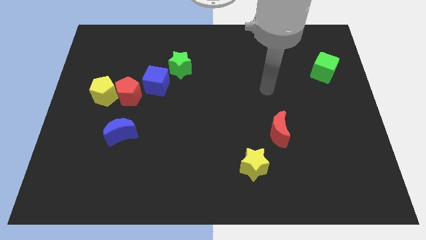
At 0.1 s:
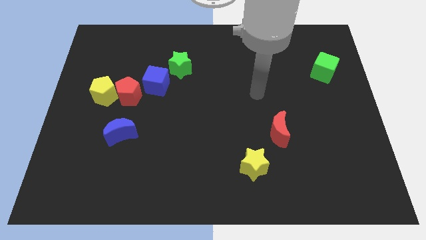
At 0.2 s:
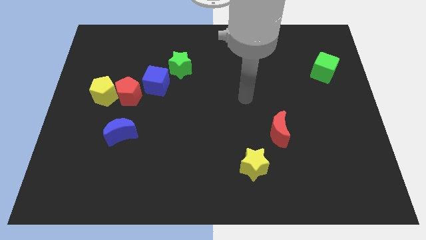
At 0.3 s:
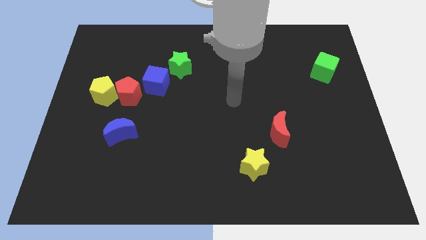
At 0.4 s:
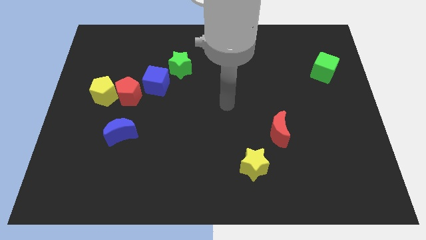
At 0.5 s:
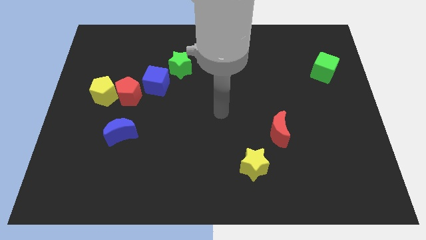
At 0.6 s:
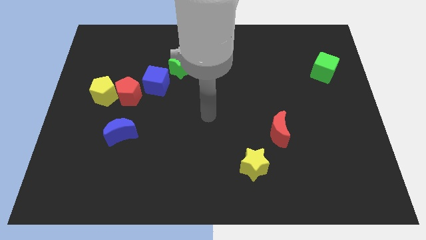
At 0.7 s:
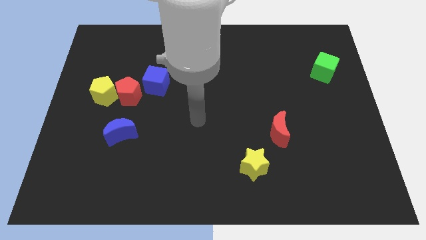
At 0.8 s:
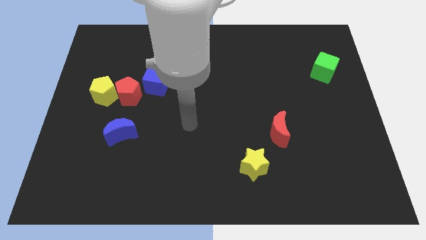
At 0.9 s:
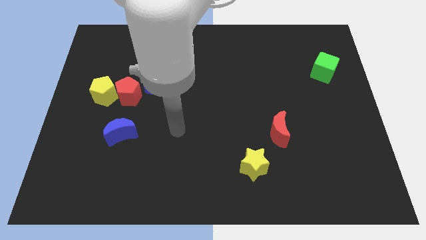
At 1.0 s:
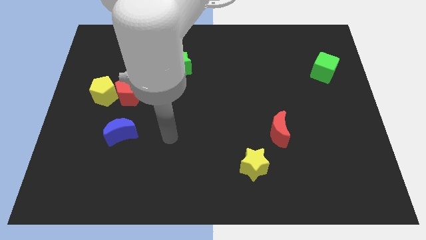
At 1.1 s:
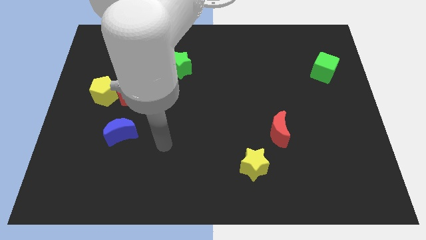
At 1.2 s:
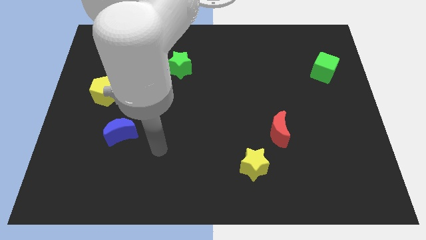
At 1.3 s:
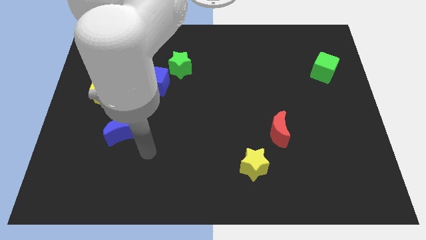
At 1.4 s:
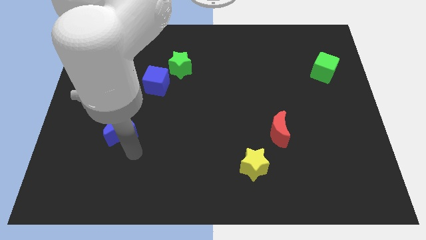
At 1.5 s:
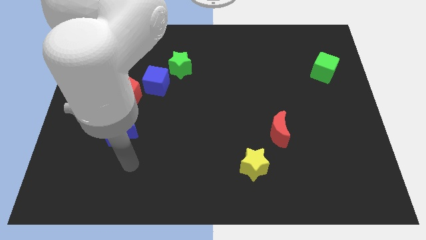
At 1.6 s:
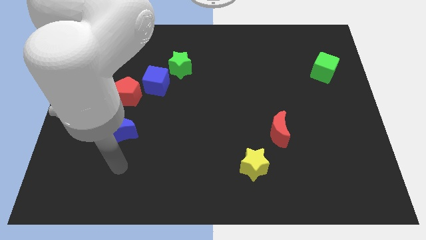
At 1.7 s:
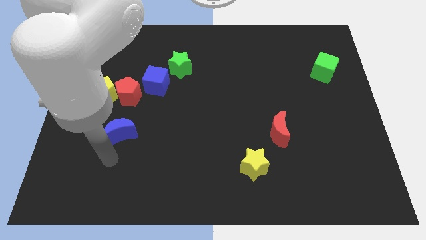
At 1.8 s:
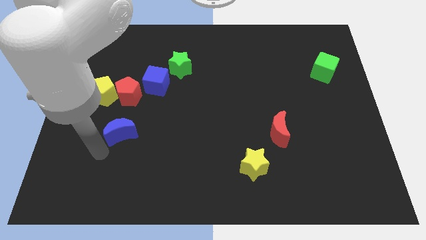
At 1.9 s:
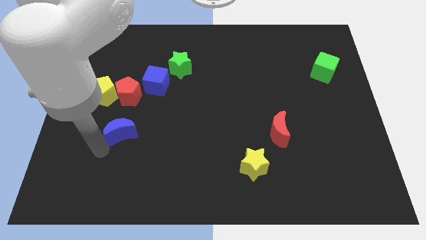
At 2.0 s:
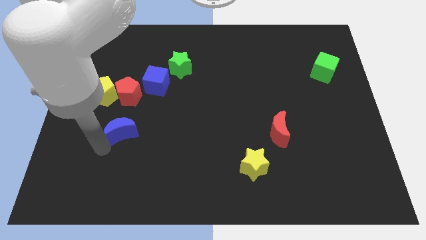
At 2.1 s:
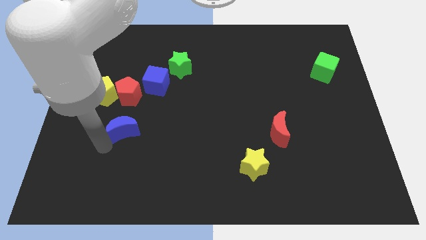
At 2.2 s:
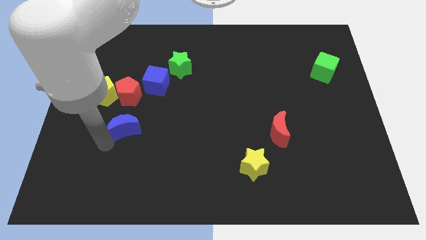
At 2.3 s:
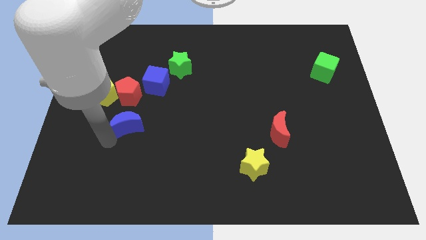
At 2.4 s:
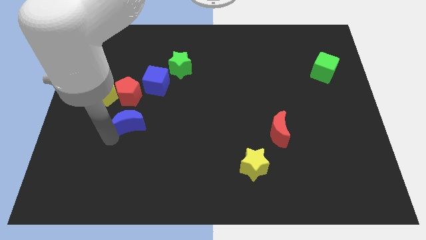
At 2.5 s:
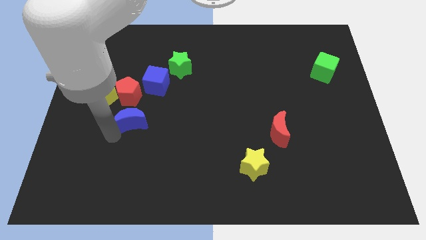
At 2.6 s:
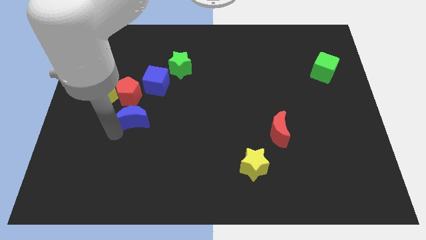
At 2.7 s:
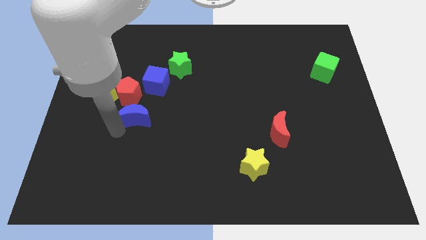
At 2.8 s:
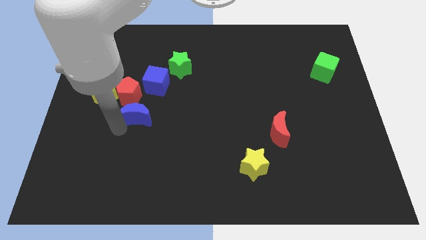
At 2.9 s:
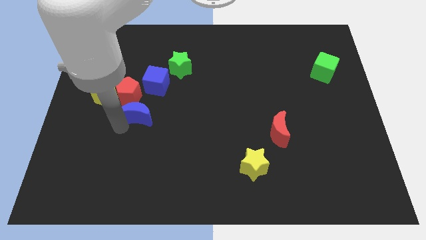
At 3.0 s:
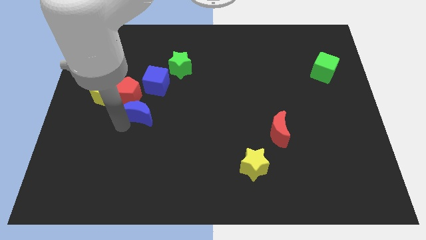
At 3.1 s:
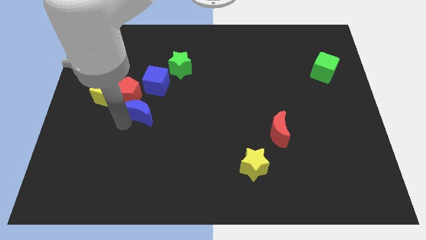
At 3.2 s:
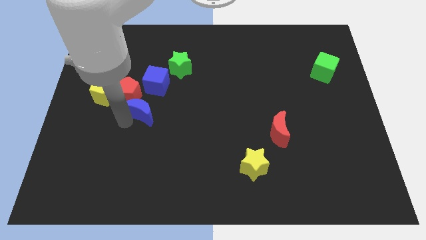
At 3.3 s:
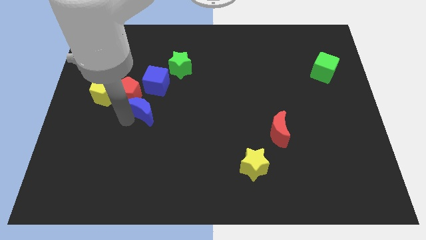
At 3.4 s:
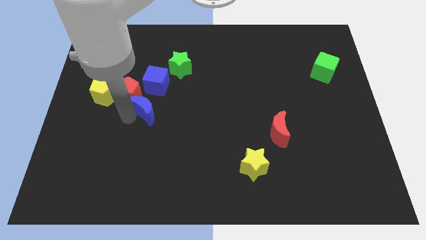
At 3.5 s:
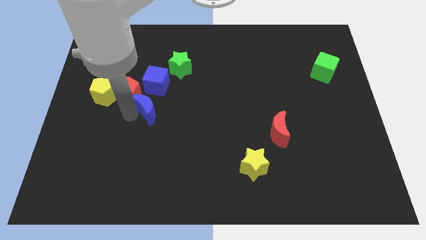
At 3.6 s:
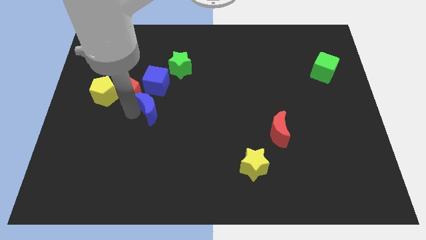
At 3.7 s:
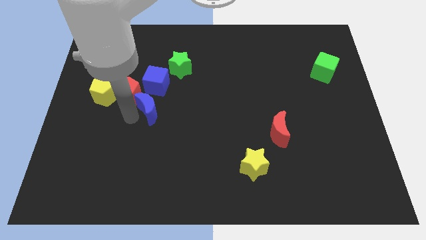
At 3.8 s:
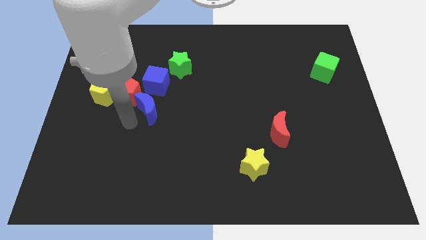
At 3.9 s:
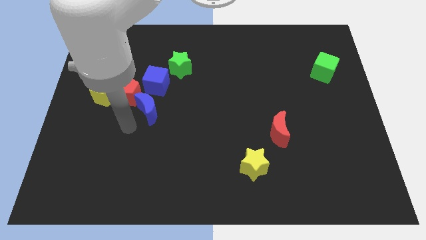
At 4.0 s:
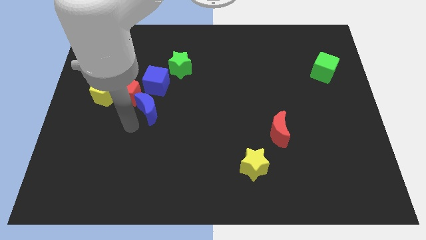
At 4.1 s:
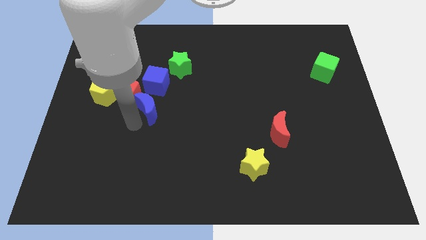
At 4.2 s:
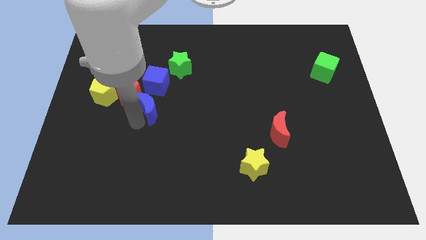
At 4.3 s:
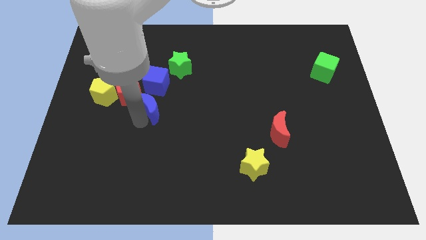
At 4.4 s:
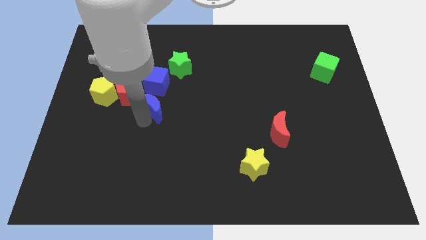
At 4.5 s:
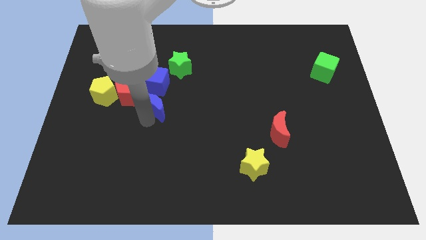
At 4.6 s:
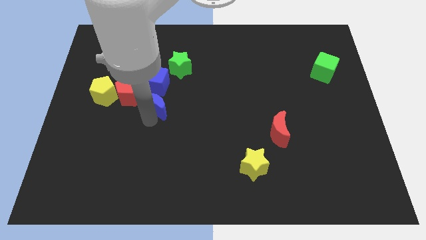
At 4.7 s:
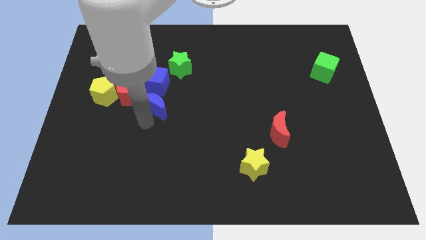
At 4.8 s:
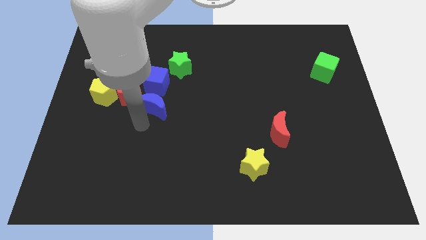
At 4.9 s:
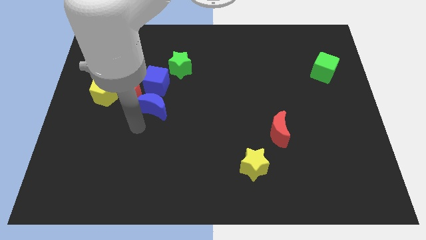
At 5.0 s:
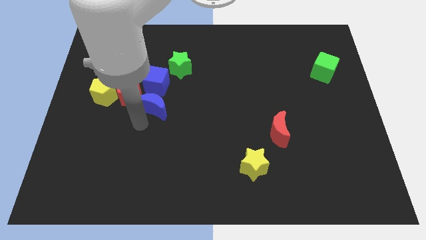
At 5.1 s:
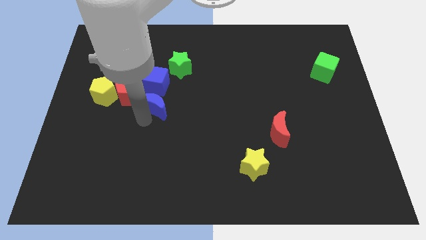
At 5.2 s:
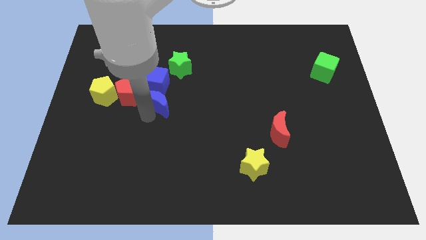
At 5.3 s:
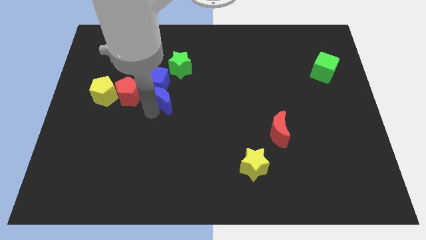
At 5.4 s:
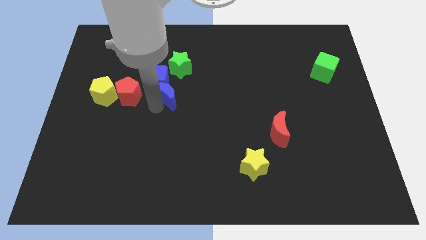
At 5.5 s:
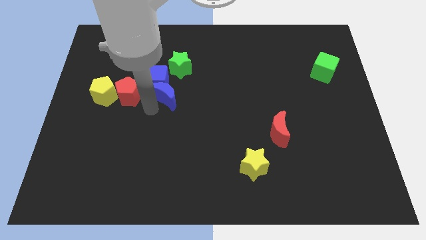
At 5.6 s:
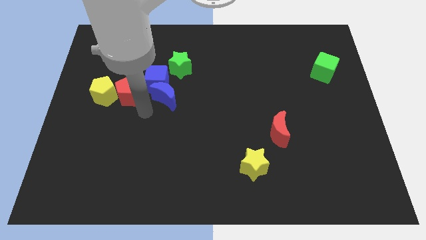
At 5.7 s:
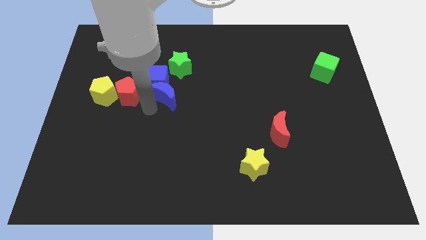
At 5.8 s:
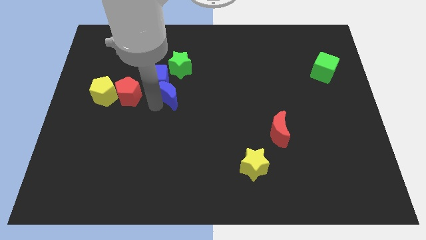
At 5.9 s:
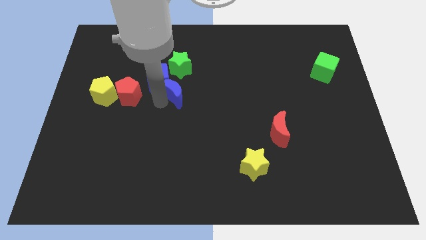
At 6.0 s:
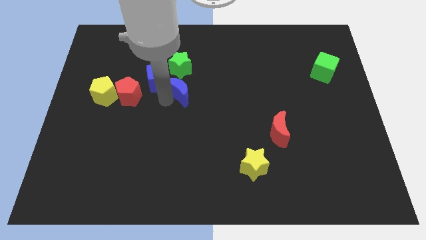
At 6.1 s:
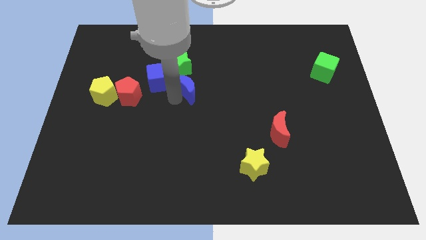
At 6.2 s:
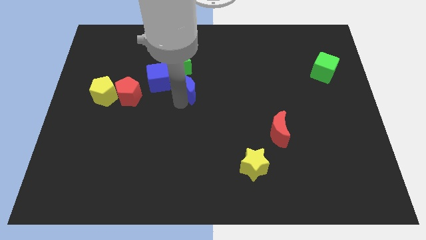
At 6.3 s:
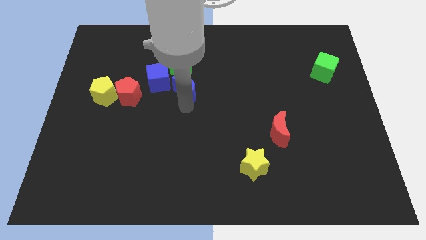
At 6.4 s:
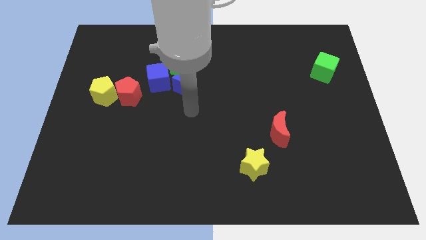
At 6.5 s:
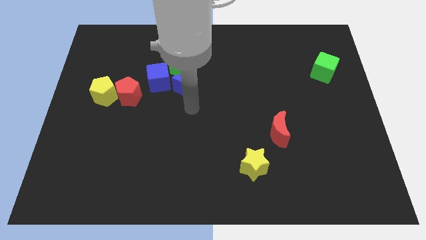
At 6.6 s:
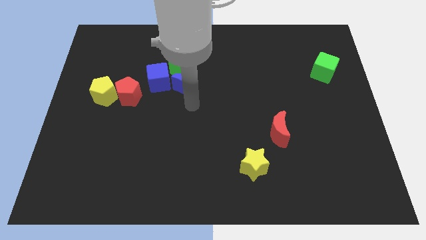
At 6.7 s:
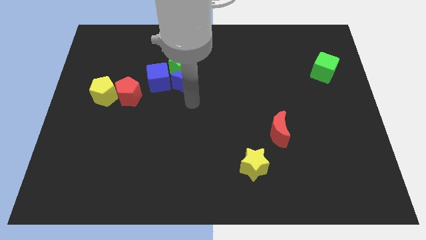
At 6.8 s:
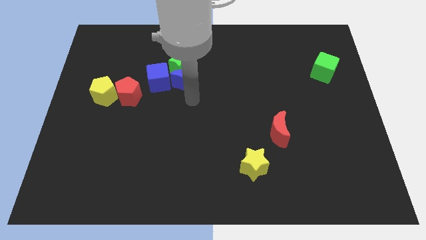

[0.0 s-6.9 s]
push the blue moon close to the green star

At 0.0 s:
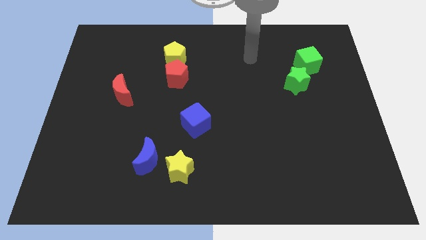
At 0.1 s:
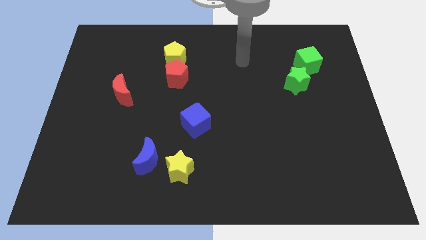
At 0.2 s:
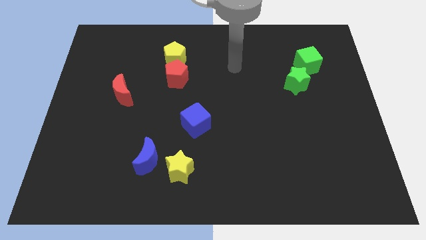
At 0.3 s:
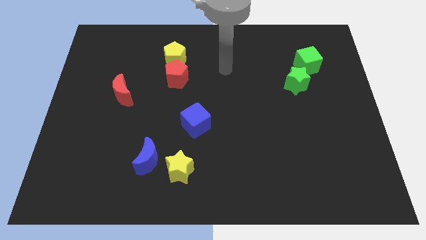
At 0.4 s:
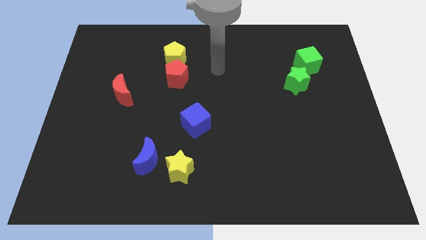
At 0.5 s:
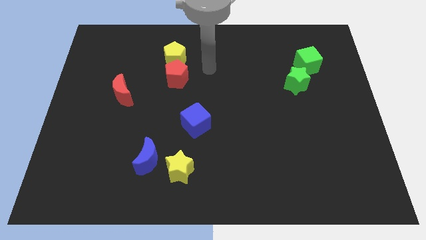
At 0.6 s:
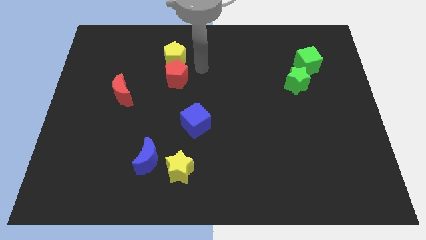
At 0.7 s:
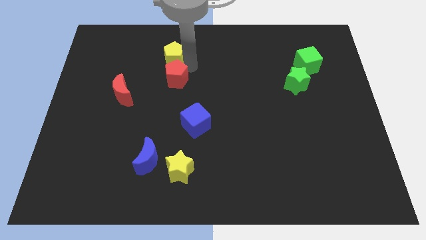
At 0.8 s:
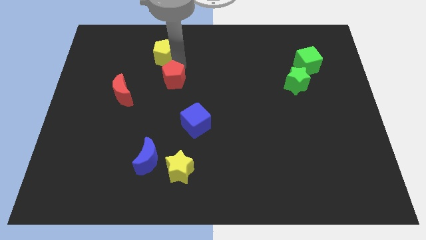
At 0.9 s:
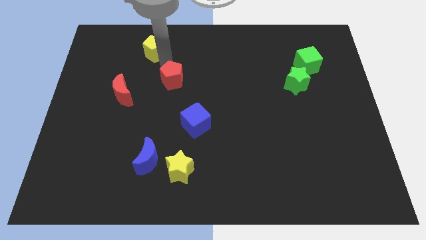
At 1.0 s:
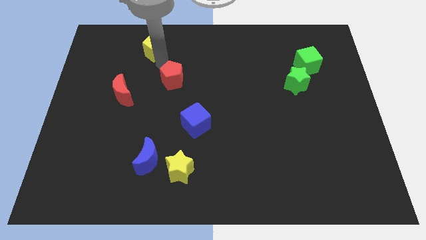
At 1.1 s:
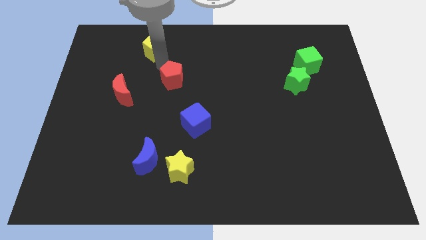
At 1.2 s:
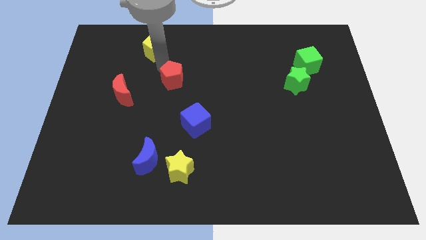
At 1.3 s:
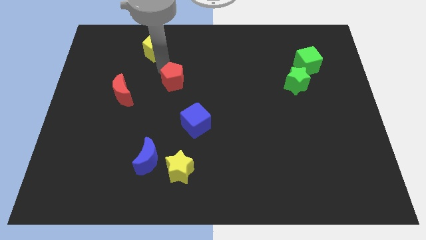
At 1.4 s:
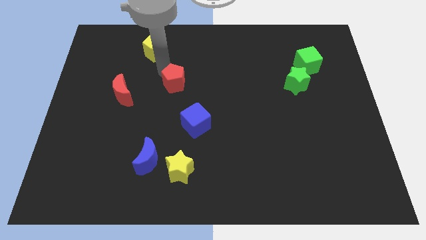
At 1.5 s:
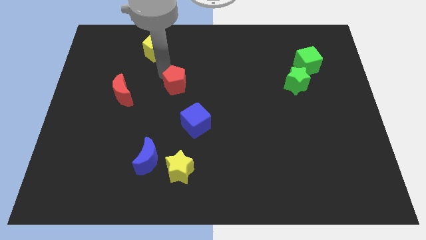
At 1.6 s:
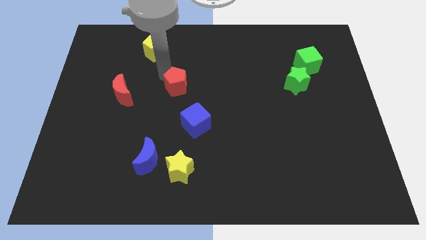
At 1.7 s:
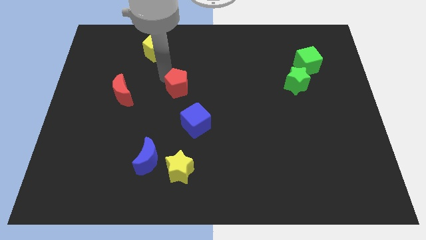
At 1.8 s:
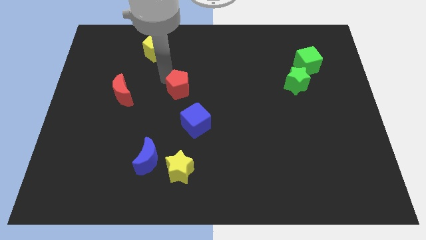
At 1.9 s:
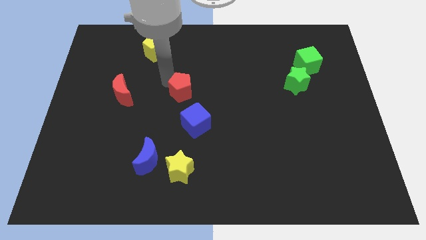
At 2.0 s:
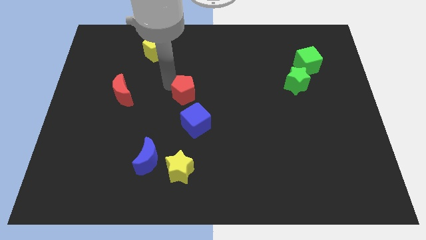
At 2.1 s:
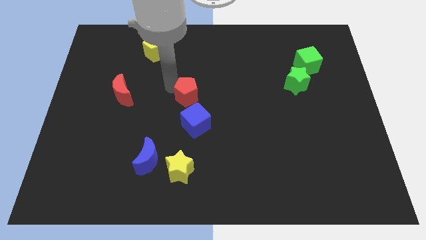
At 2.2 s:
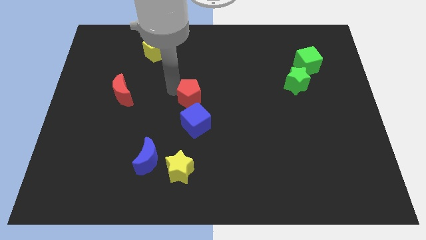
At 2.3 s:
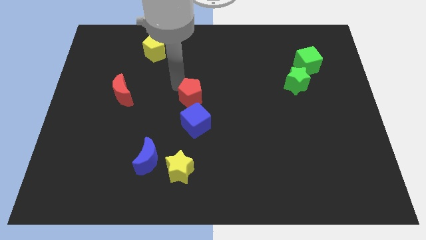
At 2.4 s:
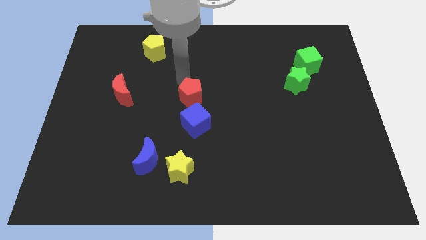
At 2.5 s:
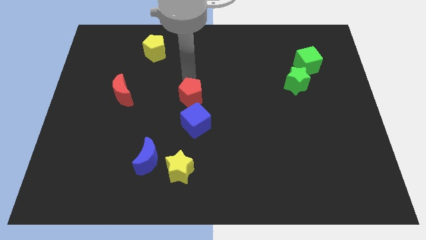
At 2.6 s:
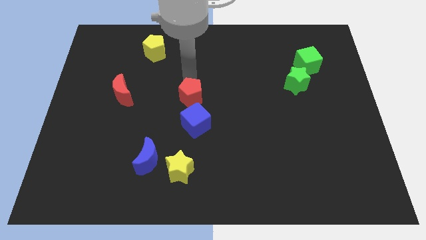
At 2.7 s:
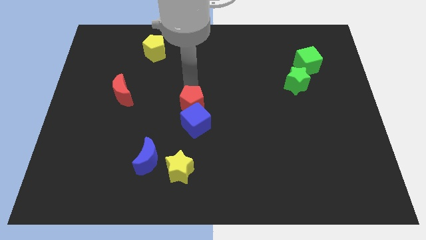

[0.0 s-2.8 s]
move the red pentagon next to the blue cube
